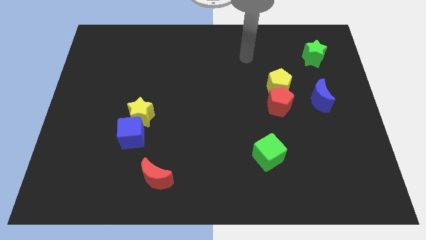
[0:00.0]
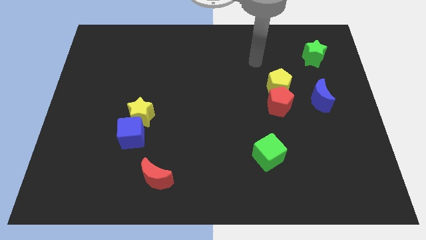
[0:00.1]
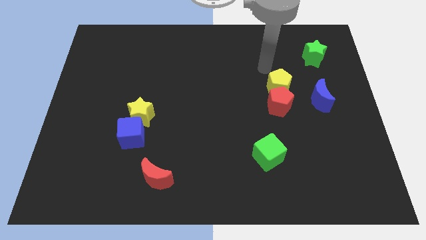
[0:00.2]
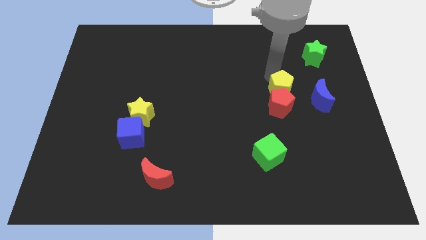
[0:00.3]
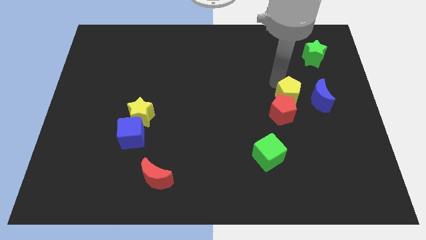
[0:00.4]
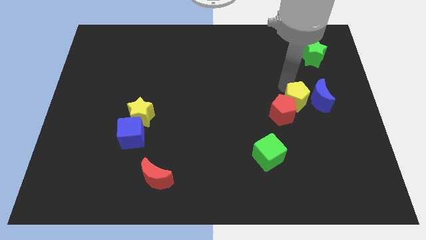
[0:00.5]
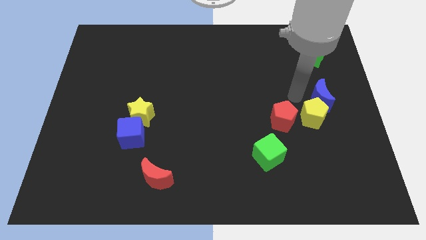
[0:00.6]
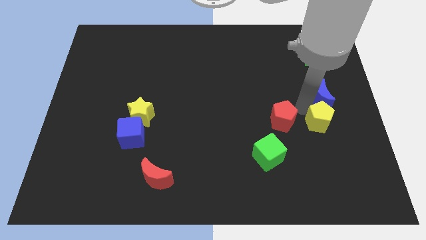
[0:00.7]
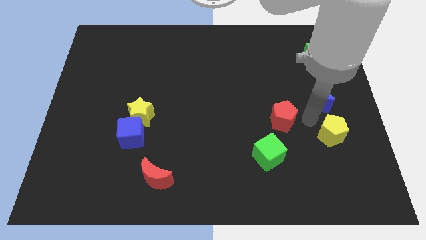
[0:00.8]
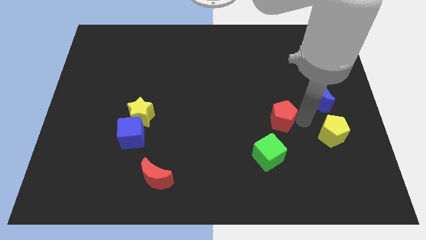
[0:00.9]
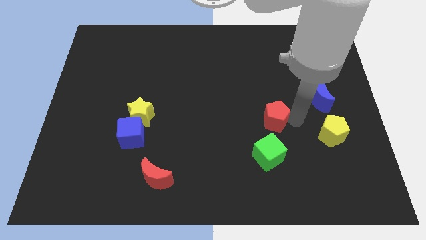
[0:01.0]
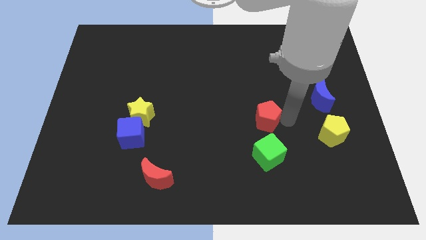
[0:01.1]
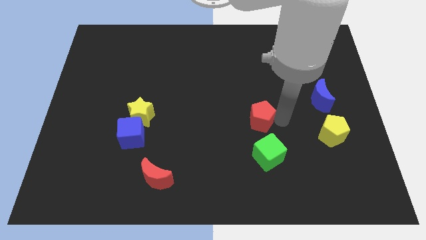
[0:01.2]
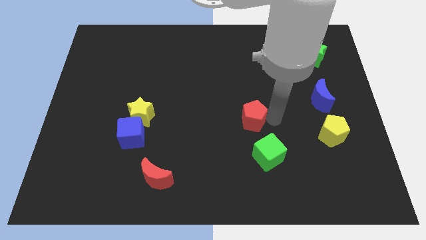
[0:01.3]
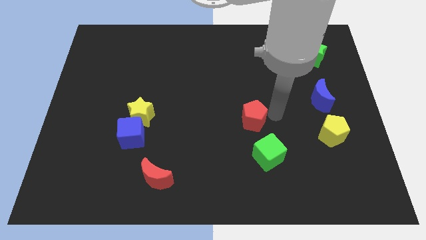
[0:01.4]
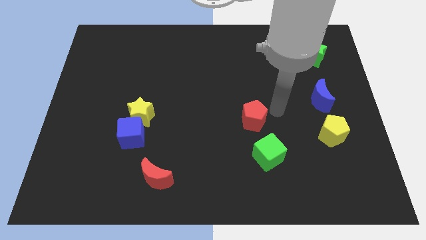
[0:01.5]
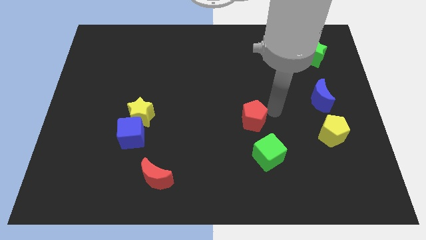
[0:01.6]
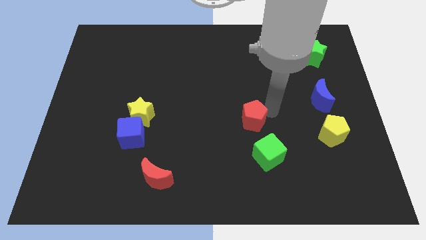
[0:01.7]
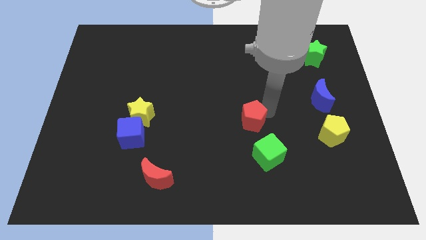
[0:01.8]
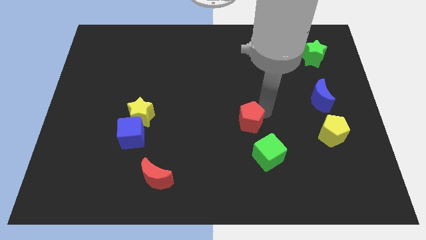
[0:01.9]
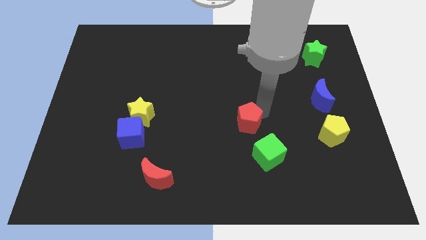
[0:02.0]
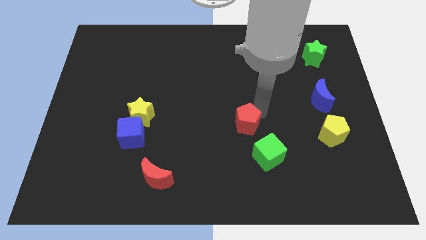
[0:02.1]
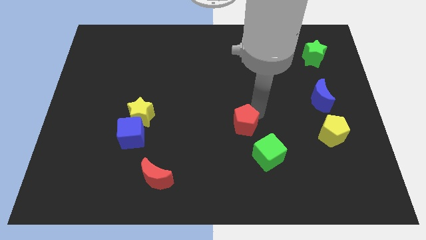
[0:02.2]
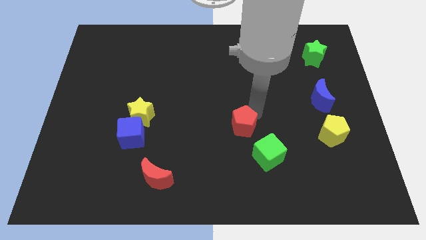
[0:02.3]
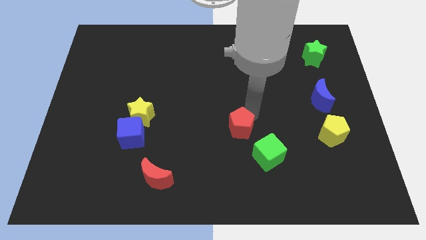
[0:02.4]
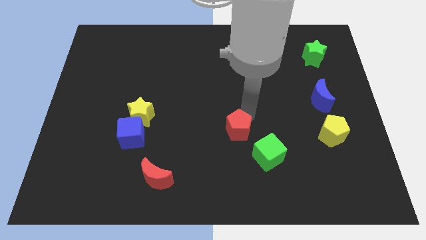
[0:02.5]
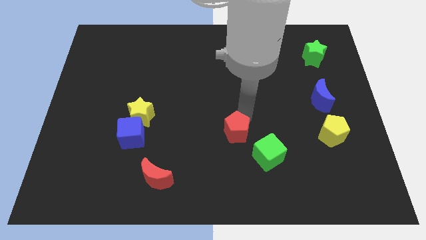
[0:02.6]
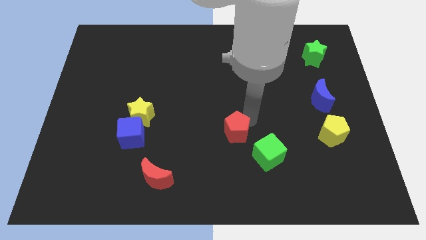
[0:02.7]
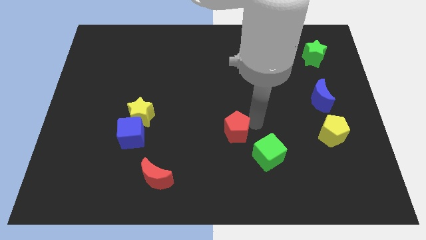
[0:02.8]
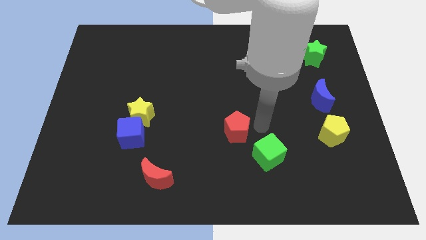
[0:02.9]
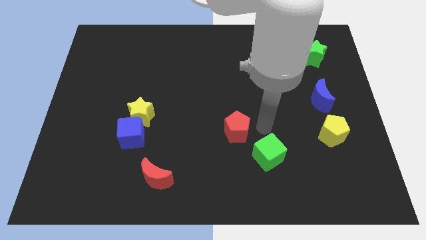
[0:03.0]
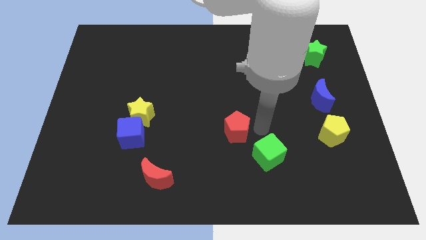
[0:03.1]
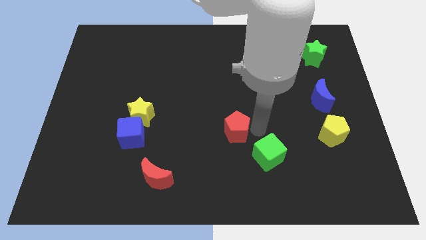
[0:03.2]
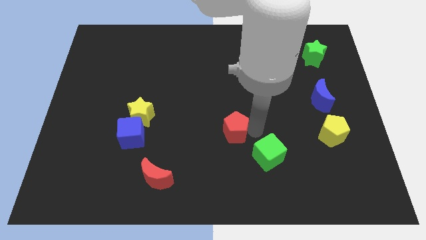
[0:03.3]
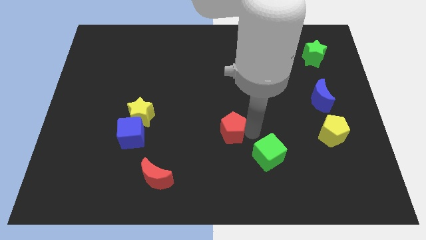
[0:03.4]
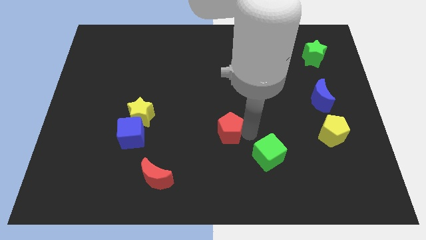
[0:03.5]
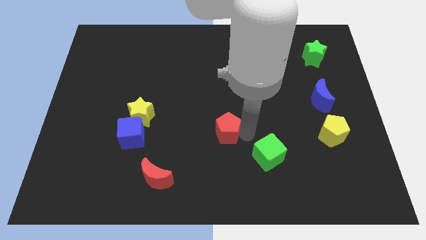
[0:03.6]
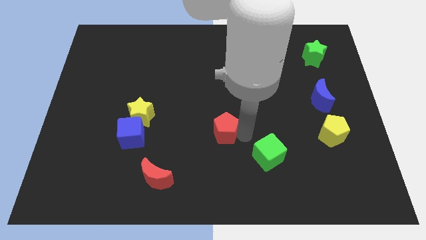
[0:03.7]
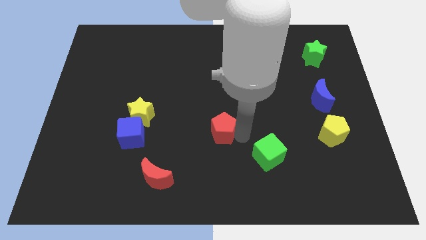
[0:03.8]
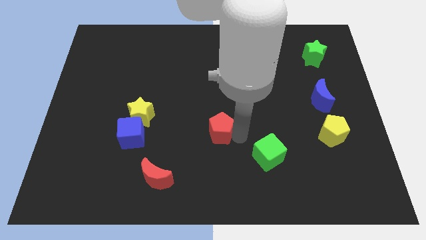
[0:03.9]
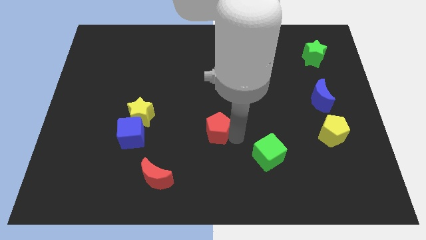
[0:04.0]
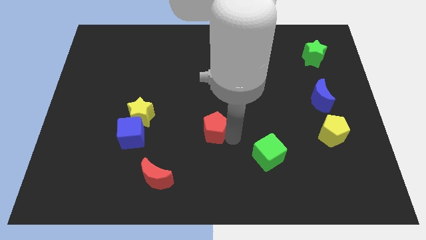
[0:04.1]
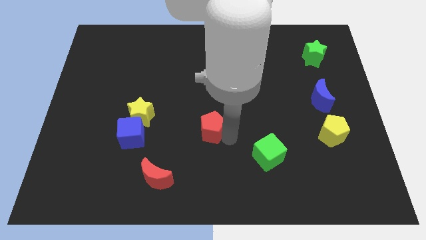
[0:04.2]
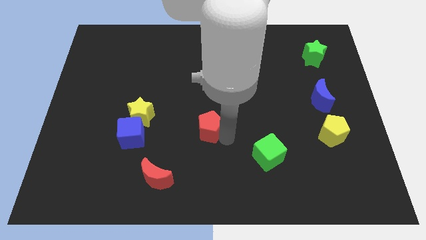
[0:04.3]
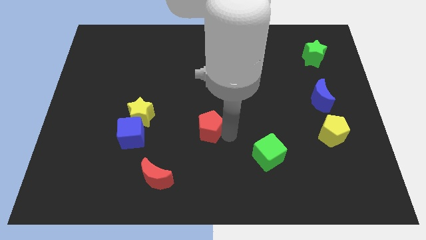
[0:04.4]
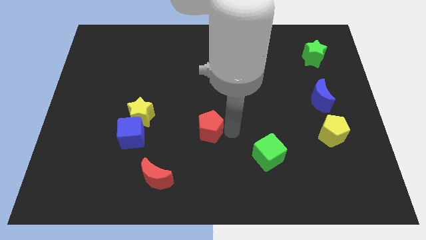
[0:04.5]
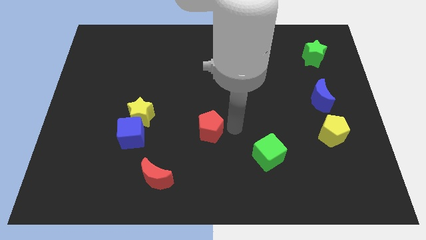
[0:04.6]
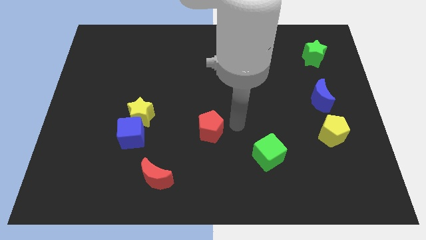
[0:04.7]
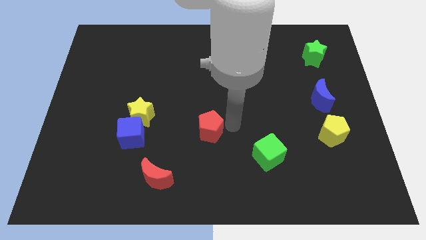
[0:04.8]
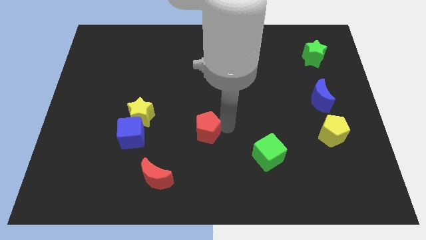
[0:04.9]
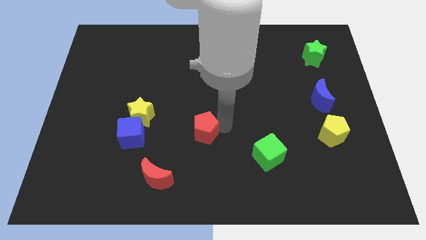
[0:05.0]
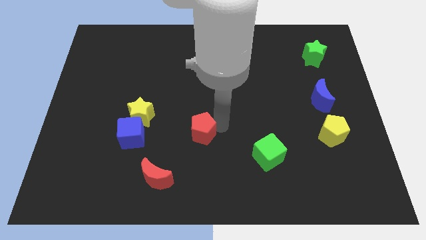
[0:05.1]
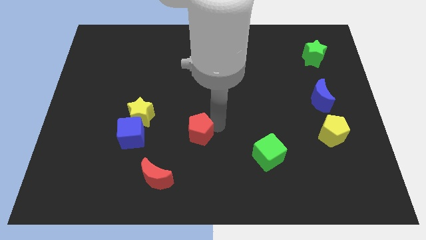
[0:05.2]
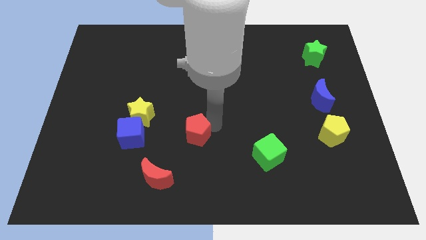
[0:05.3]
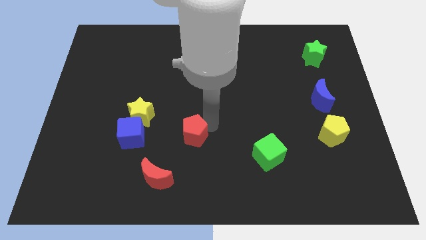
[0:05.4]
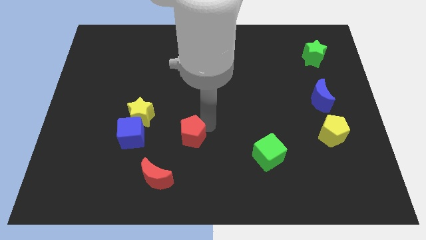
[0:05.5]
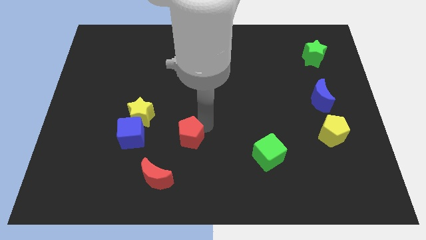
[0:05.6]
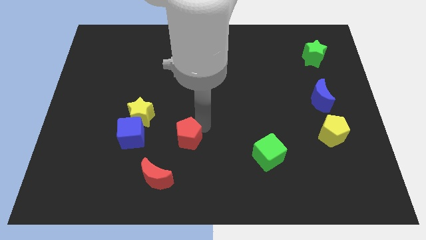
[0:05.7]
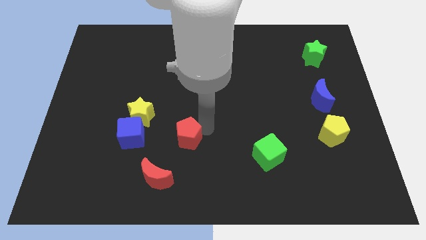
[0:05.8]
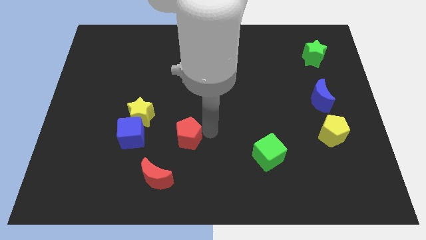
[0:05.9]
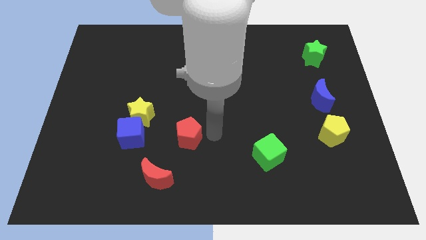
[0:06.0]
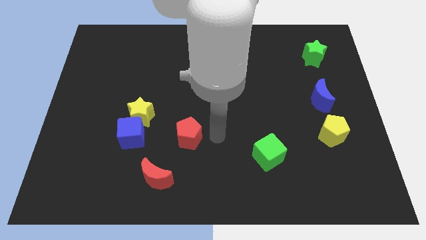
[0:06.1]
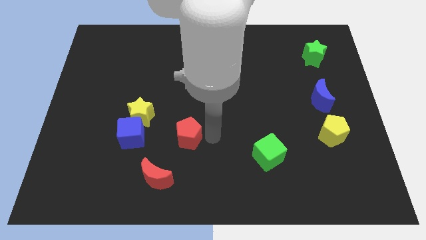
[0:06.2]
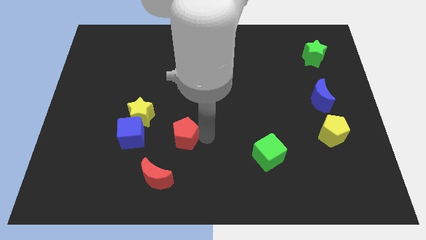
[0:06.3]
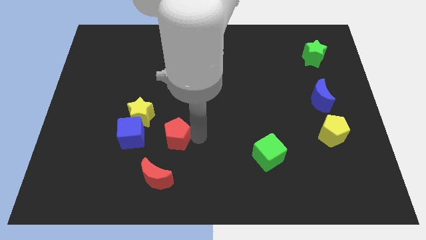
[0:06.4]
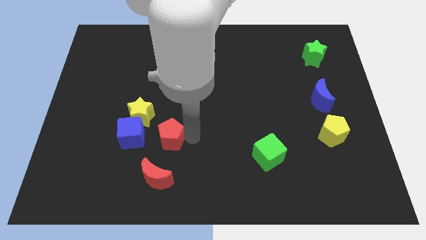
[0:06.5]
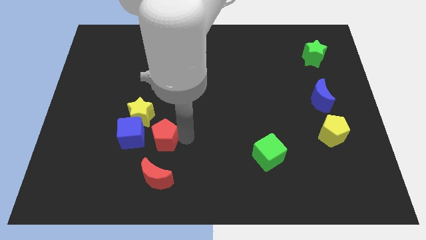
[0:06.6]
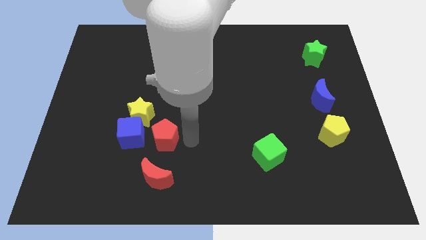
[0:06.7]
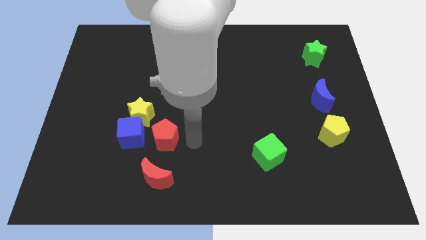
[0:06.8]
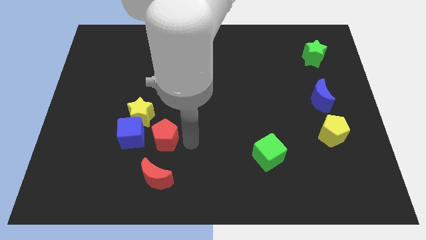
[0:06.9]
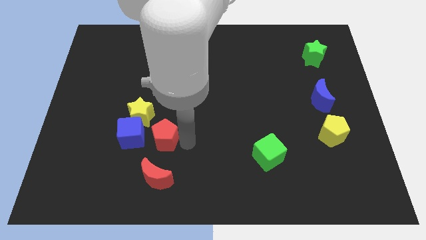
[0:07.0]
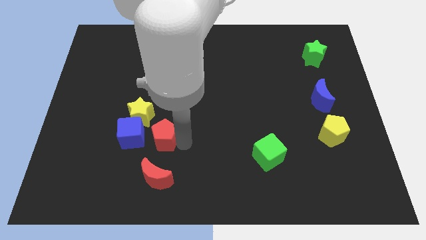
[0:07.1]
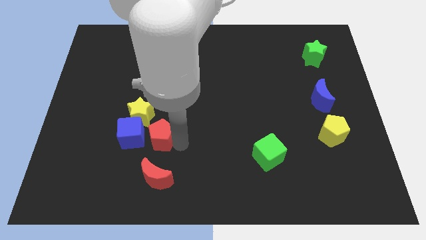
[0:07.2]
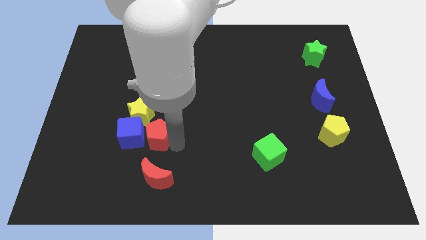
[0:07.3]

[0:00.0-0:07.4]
put the red pentagon next to the blue cube
